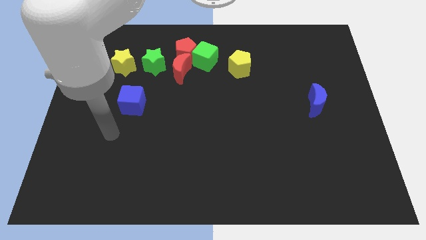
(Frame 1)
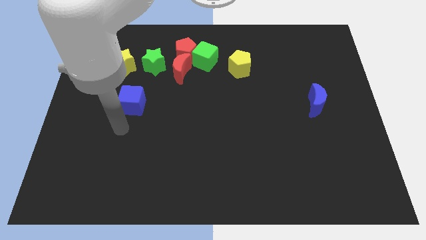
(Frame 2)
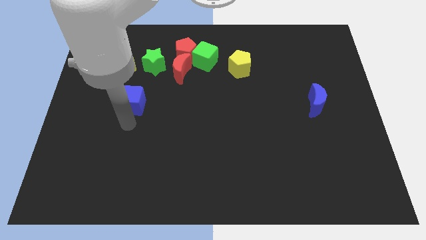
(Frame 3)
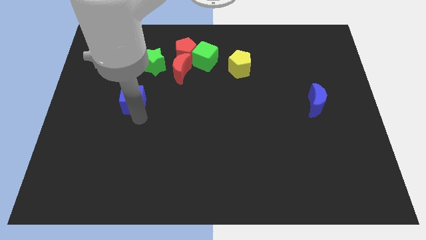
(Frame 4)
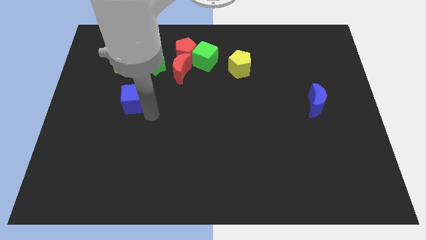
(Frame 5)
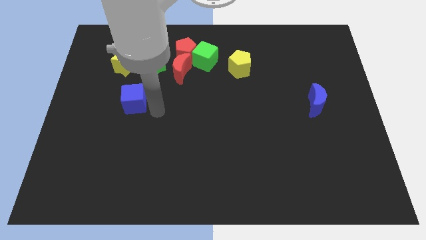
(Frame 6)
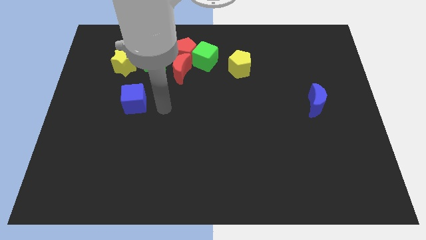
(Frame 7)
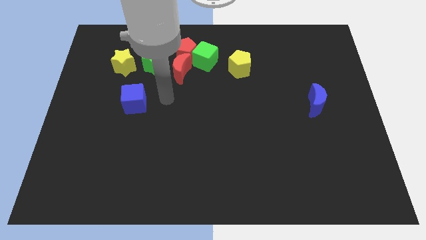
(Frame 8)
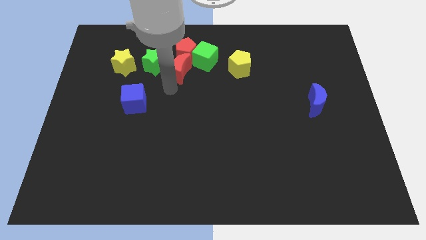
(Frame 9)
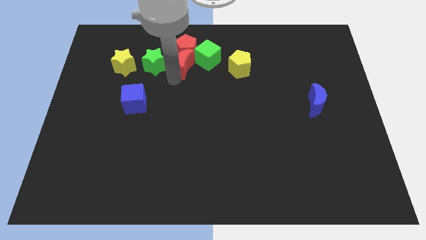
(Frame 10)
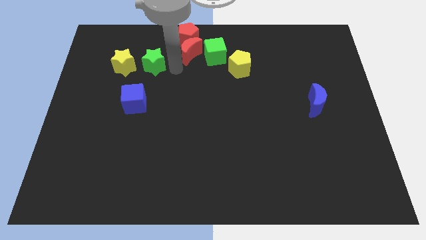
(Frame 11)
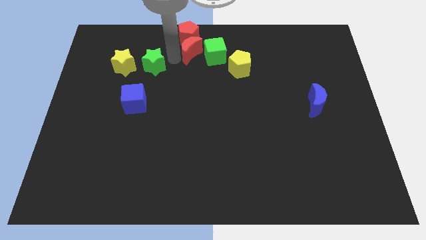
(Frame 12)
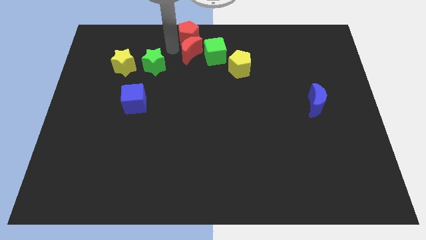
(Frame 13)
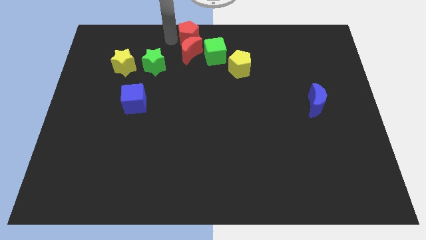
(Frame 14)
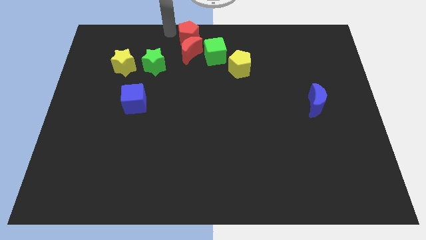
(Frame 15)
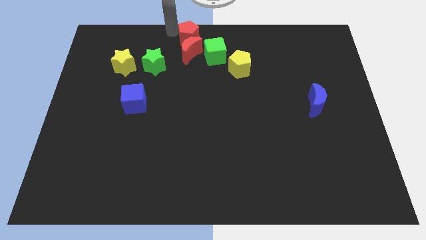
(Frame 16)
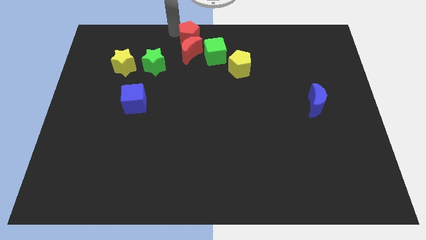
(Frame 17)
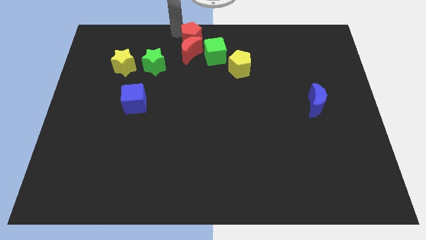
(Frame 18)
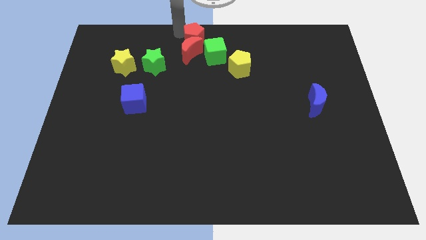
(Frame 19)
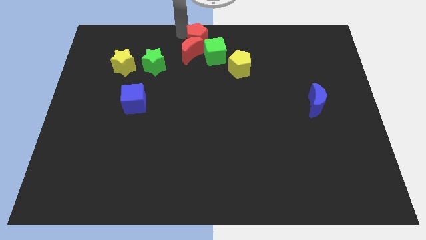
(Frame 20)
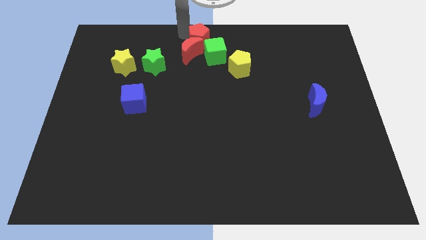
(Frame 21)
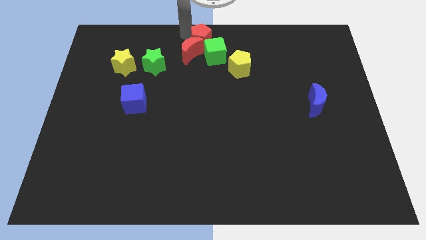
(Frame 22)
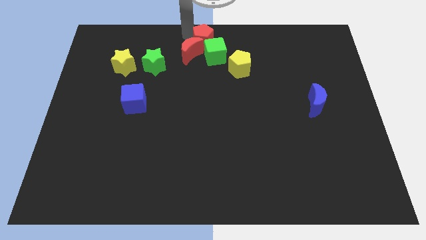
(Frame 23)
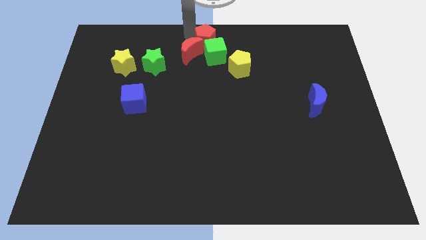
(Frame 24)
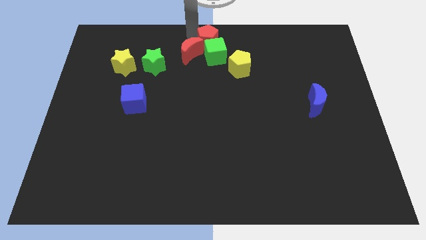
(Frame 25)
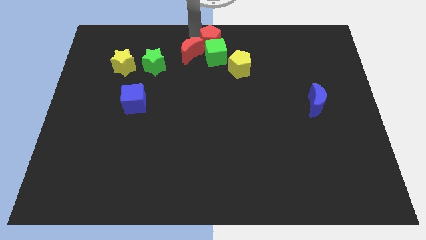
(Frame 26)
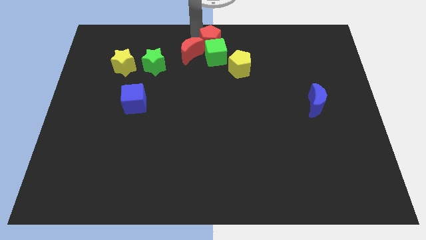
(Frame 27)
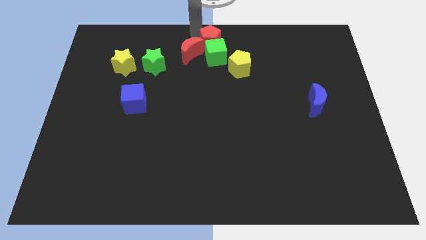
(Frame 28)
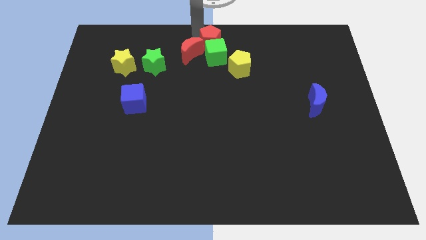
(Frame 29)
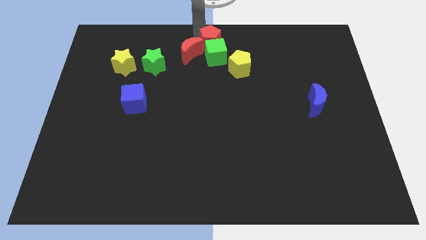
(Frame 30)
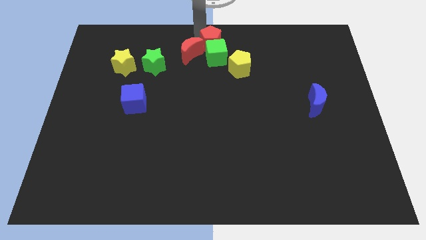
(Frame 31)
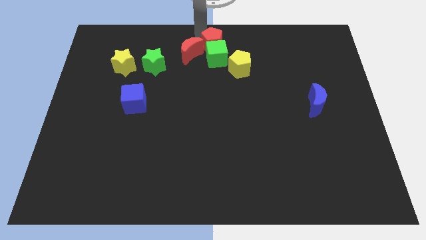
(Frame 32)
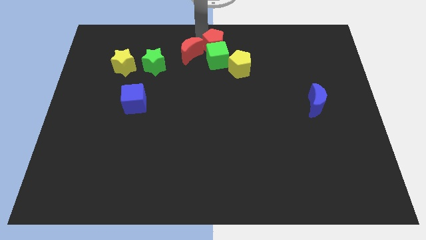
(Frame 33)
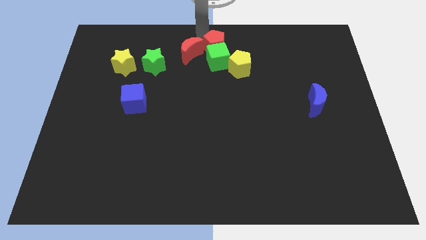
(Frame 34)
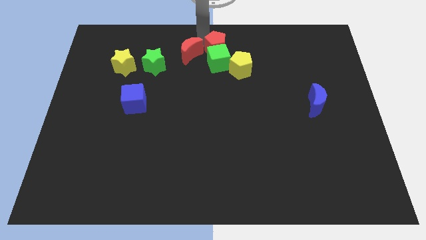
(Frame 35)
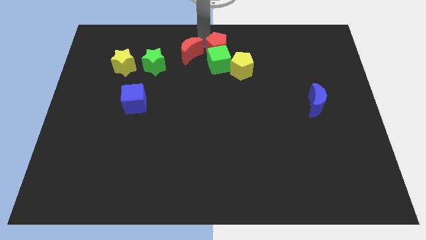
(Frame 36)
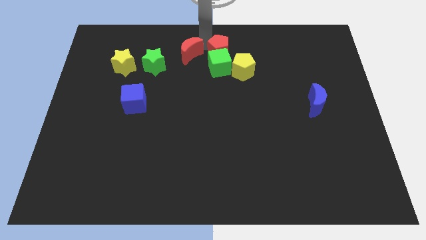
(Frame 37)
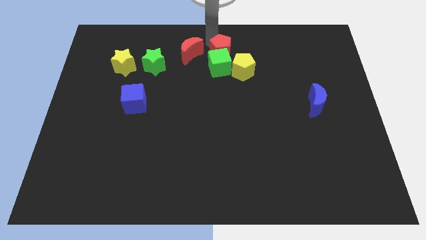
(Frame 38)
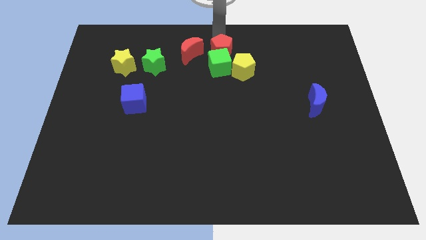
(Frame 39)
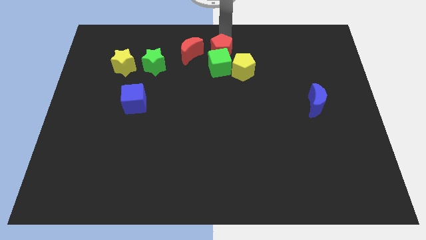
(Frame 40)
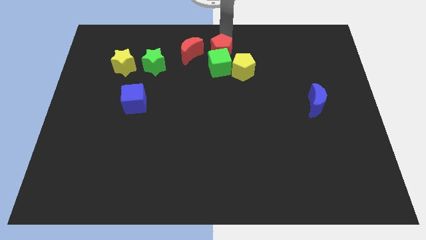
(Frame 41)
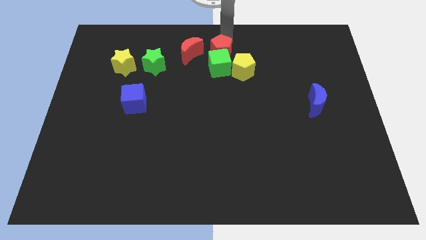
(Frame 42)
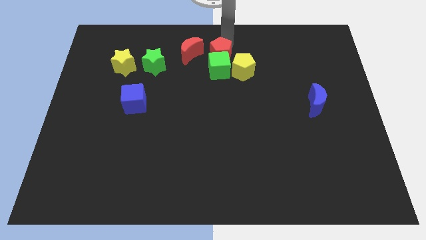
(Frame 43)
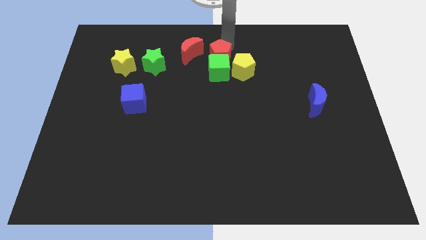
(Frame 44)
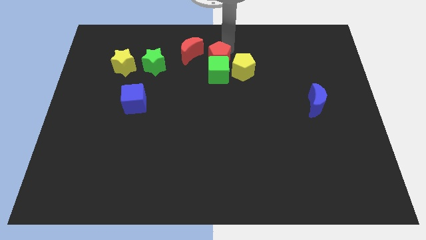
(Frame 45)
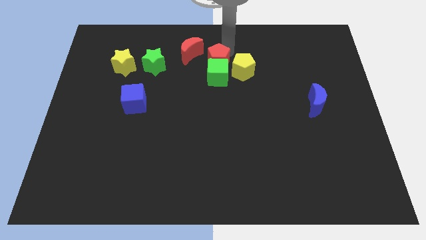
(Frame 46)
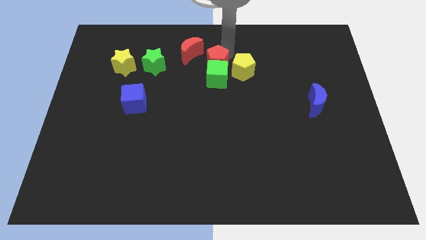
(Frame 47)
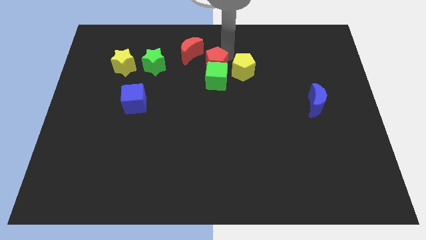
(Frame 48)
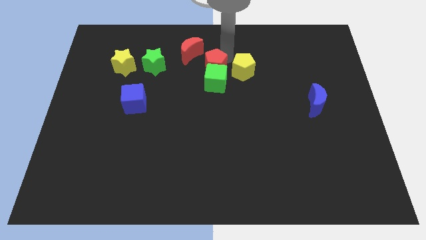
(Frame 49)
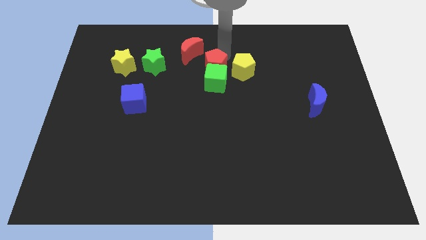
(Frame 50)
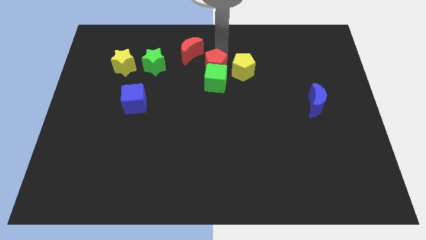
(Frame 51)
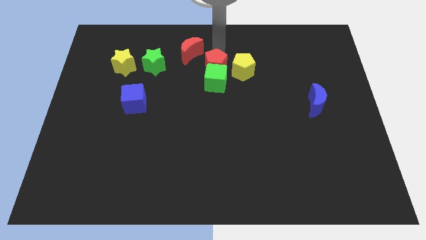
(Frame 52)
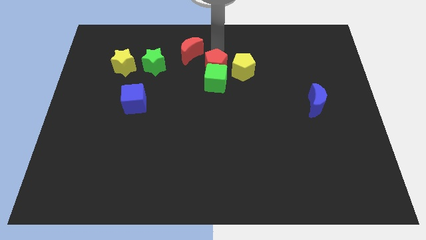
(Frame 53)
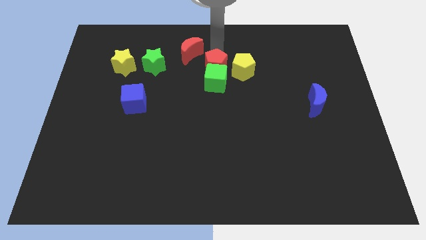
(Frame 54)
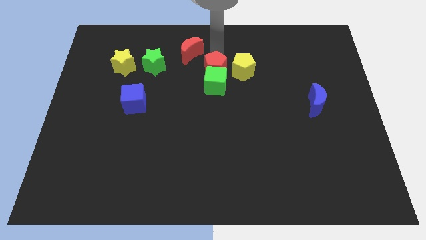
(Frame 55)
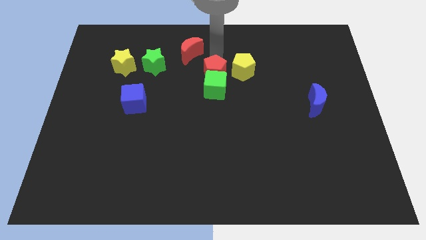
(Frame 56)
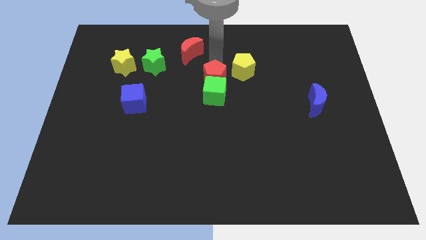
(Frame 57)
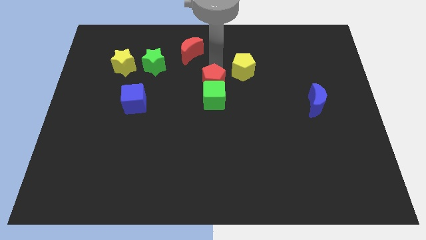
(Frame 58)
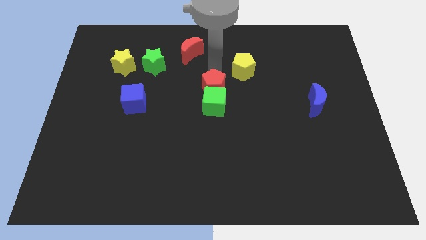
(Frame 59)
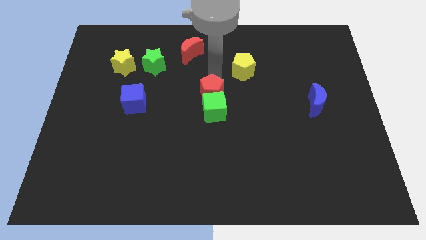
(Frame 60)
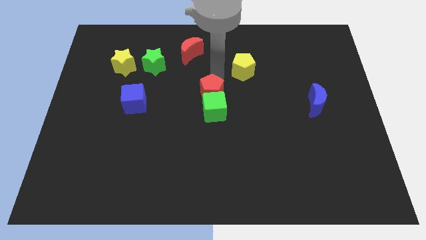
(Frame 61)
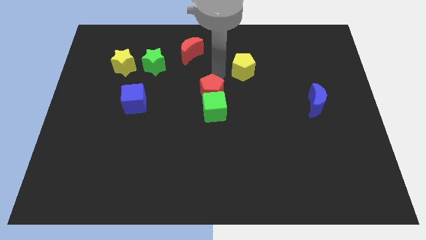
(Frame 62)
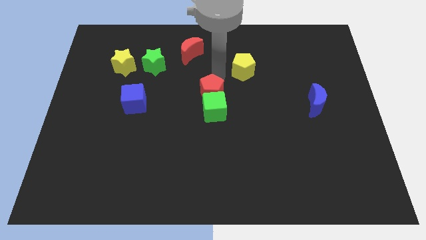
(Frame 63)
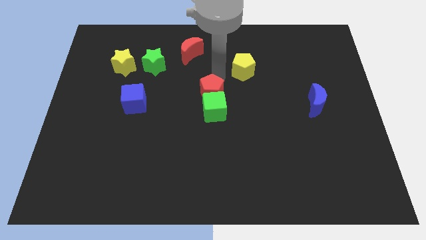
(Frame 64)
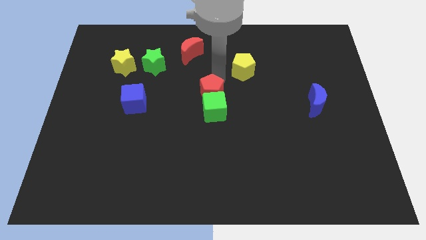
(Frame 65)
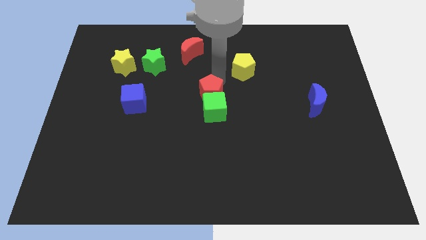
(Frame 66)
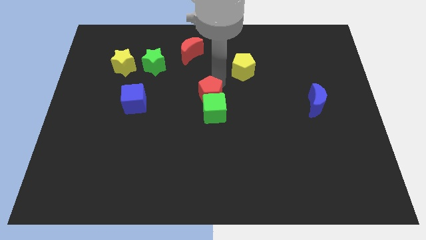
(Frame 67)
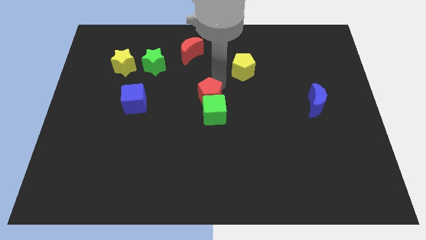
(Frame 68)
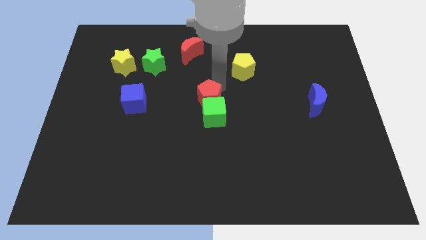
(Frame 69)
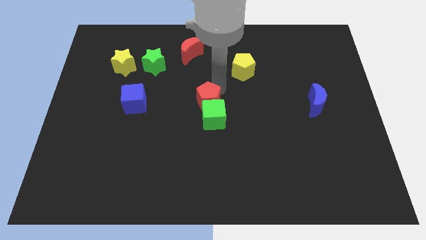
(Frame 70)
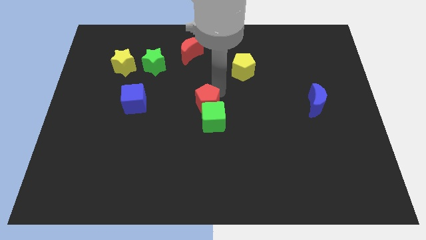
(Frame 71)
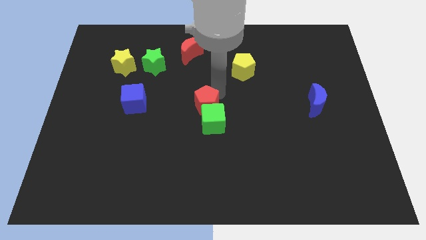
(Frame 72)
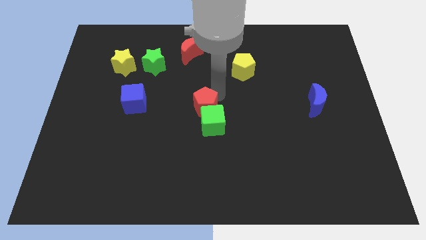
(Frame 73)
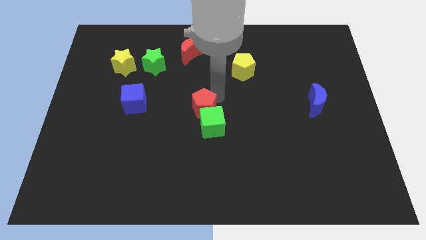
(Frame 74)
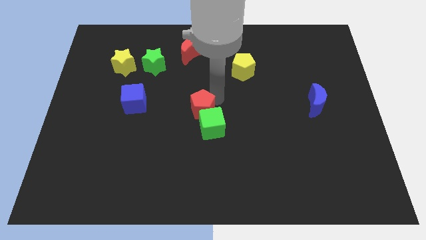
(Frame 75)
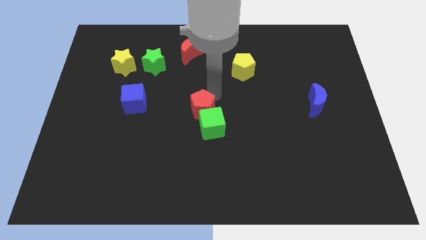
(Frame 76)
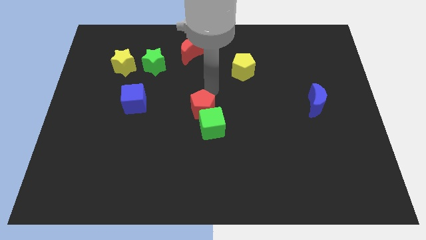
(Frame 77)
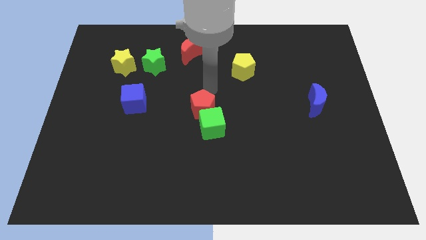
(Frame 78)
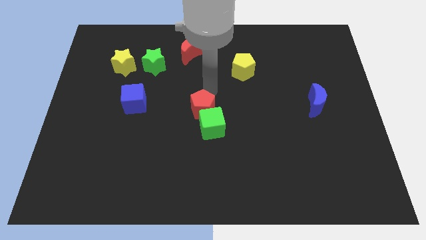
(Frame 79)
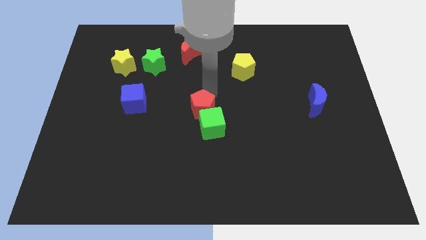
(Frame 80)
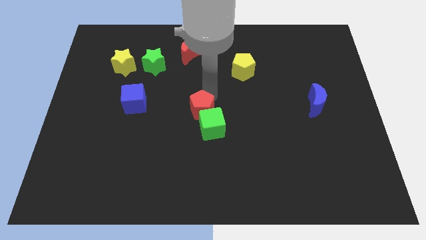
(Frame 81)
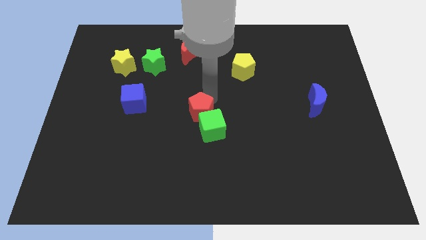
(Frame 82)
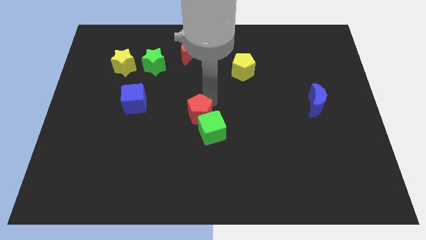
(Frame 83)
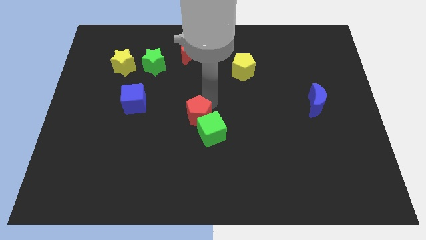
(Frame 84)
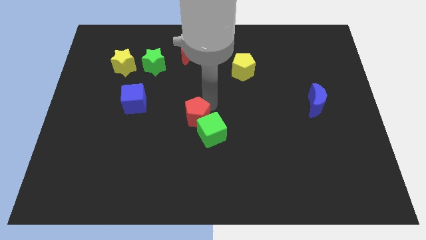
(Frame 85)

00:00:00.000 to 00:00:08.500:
move the red pentagon downwards
